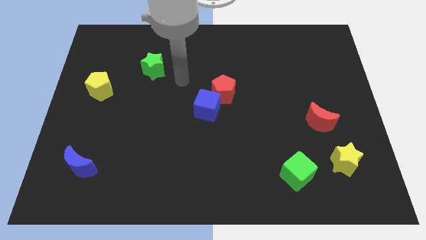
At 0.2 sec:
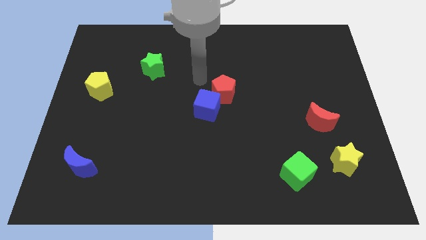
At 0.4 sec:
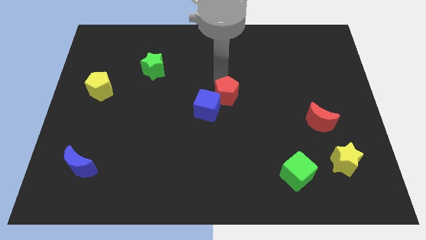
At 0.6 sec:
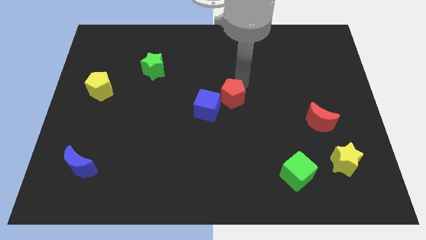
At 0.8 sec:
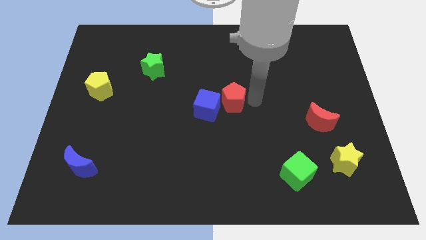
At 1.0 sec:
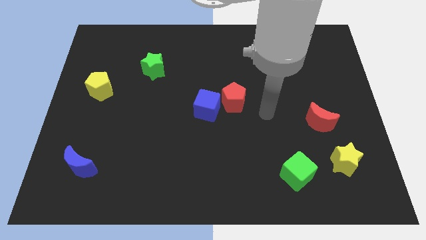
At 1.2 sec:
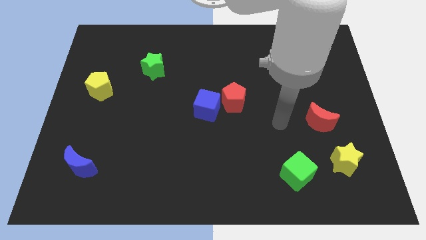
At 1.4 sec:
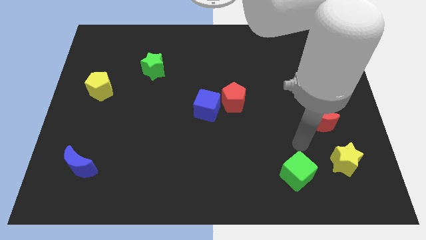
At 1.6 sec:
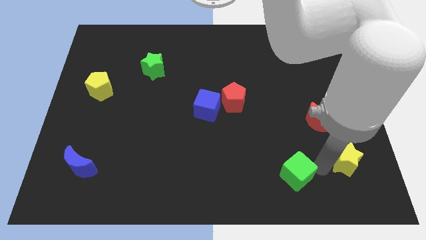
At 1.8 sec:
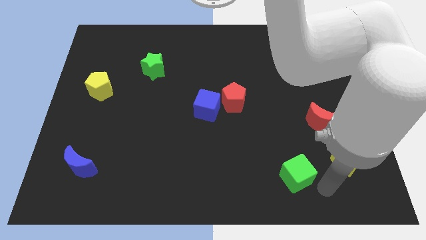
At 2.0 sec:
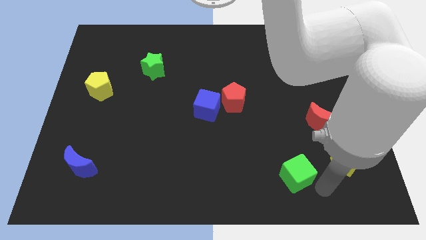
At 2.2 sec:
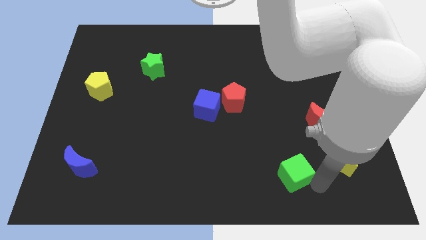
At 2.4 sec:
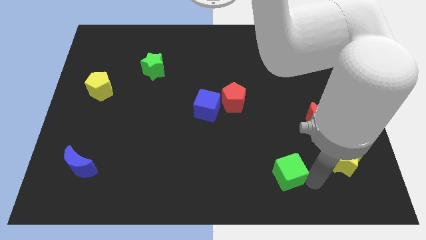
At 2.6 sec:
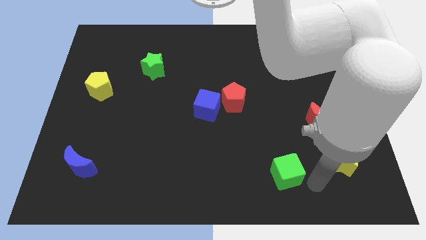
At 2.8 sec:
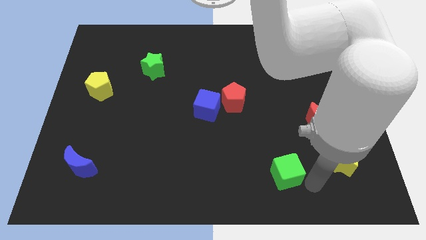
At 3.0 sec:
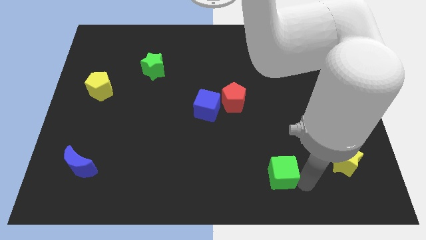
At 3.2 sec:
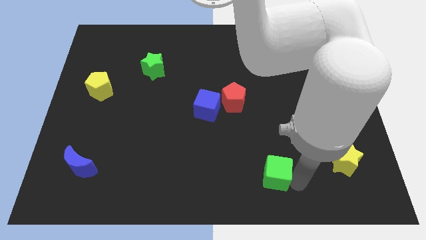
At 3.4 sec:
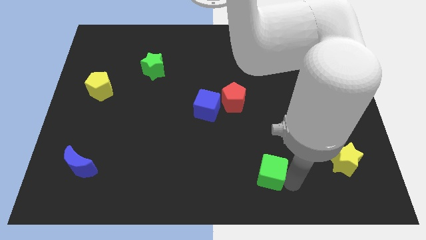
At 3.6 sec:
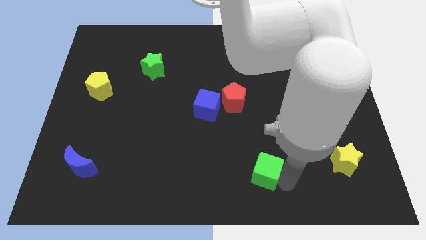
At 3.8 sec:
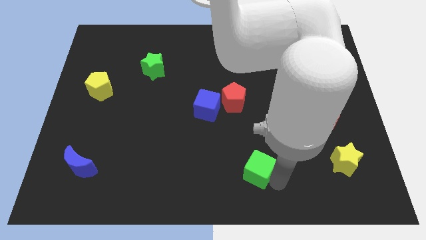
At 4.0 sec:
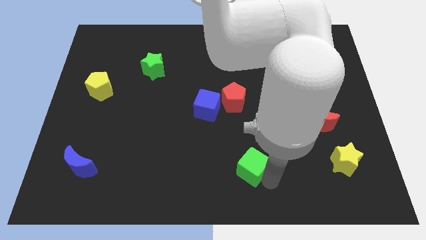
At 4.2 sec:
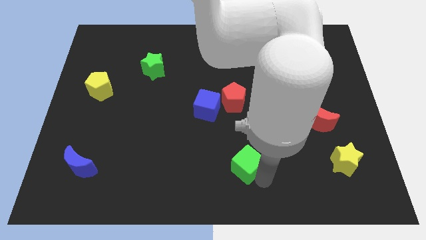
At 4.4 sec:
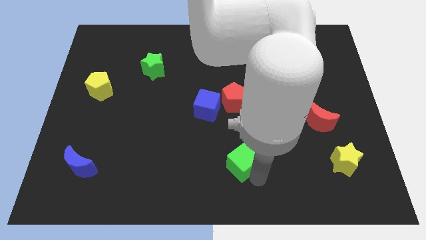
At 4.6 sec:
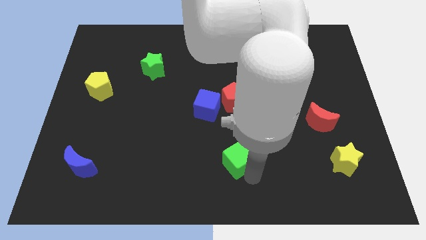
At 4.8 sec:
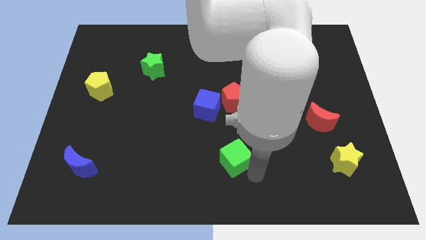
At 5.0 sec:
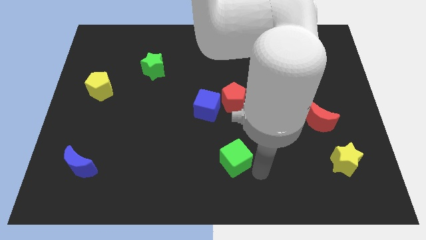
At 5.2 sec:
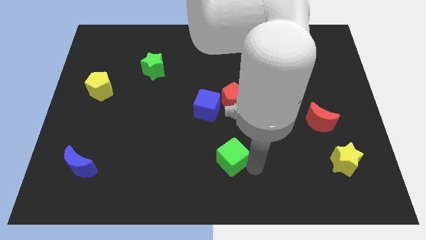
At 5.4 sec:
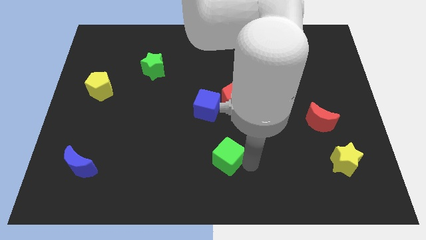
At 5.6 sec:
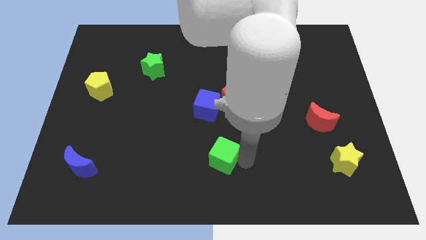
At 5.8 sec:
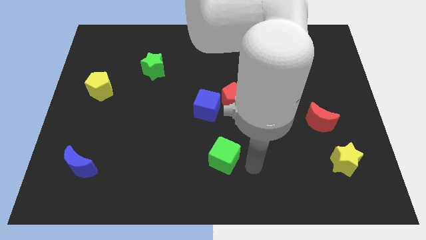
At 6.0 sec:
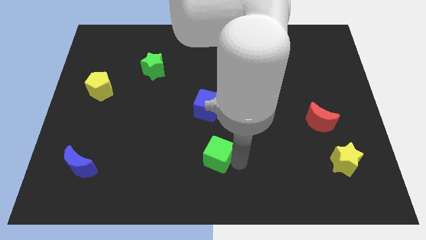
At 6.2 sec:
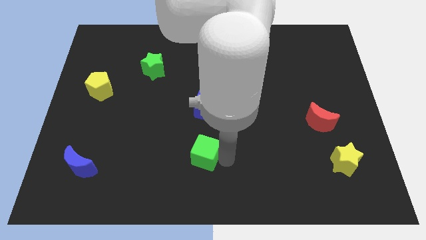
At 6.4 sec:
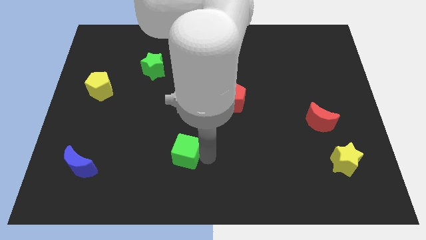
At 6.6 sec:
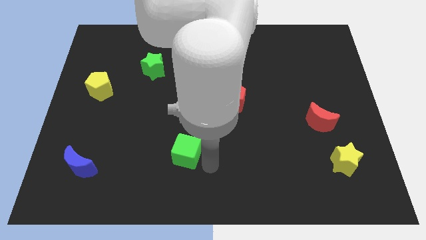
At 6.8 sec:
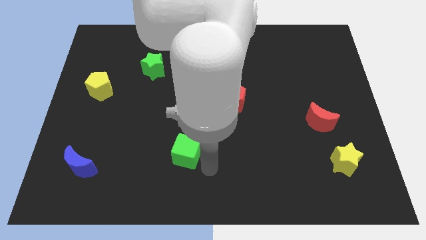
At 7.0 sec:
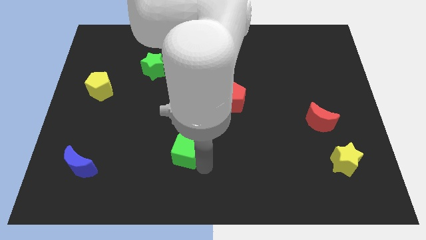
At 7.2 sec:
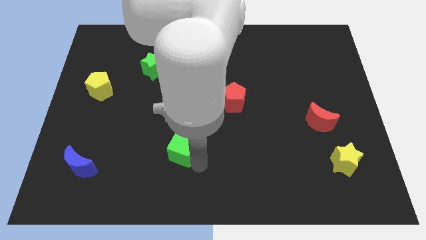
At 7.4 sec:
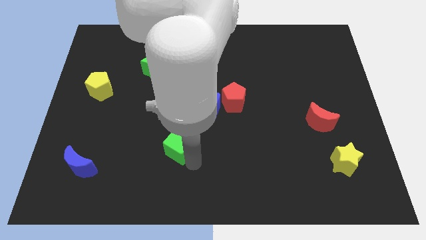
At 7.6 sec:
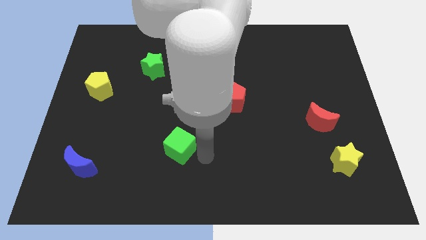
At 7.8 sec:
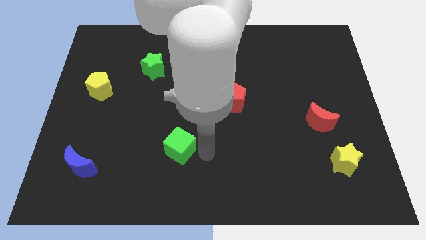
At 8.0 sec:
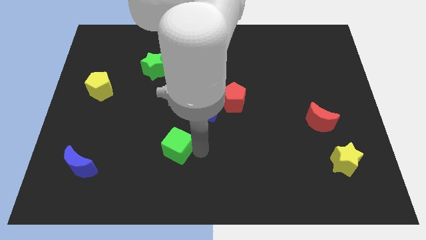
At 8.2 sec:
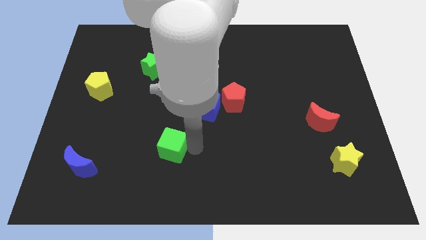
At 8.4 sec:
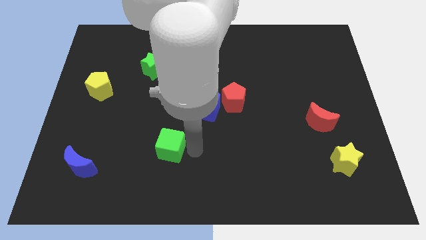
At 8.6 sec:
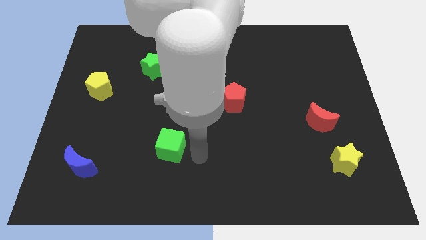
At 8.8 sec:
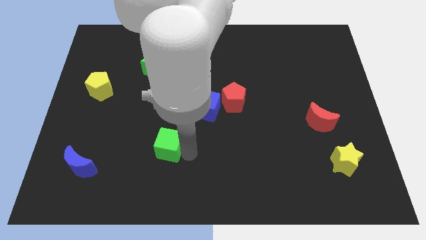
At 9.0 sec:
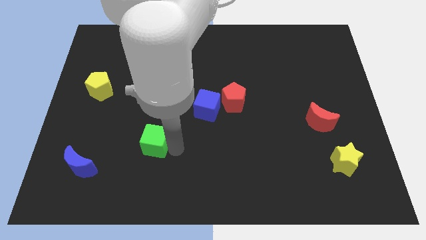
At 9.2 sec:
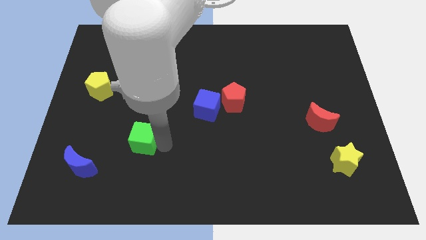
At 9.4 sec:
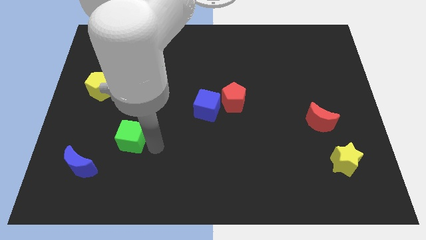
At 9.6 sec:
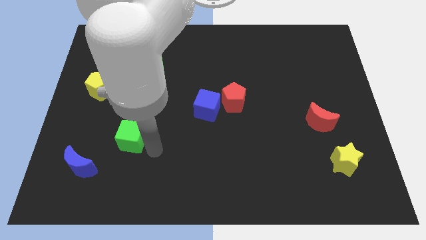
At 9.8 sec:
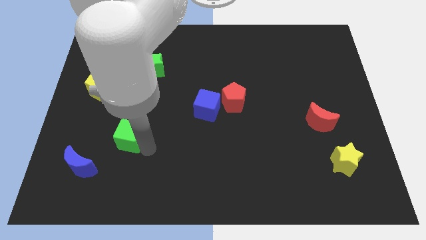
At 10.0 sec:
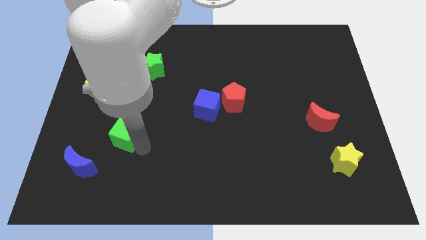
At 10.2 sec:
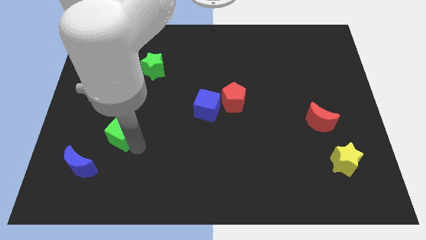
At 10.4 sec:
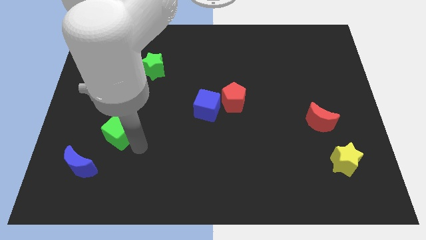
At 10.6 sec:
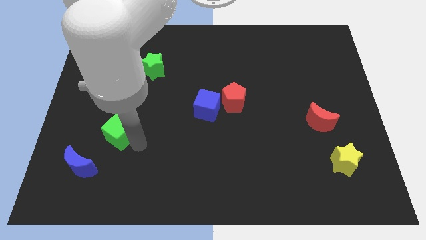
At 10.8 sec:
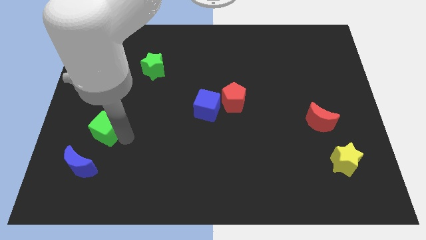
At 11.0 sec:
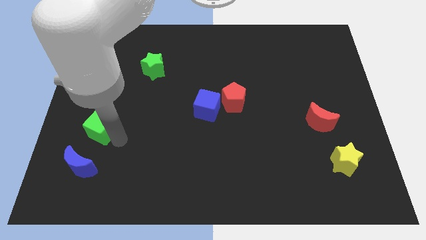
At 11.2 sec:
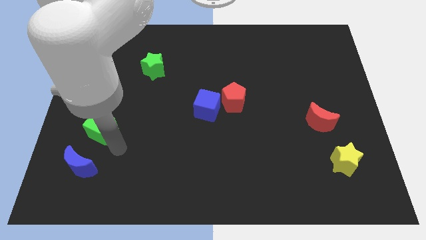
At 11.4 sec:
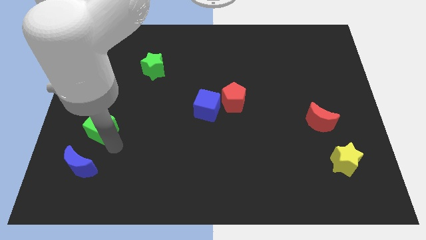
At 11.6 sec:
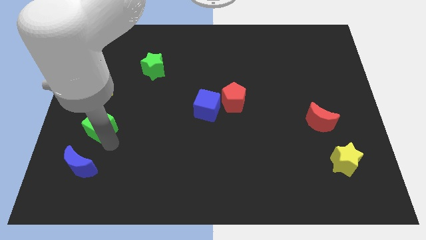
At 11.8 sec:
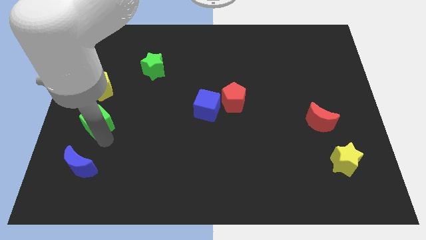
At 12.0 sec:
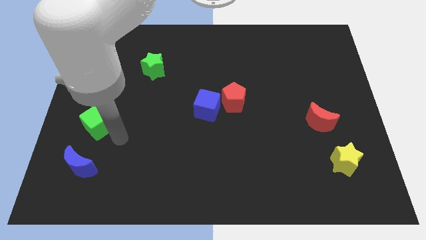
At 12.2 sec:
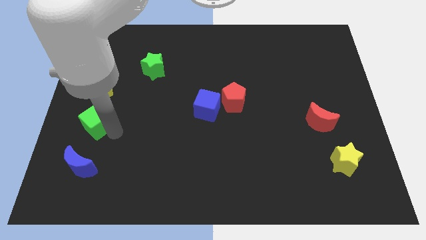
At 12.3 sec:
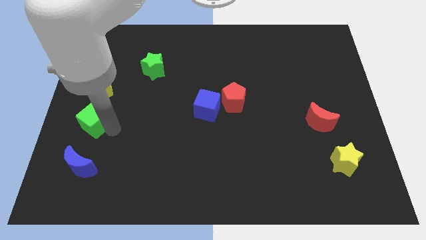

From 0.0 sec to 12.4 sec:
slide the green cube to the center left
